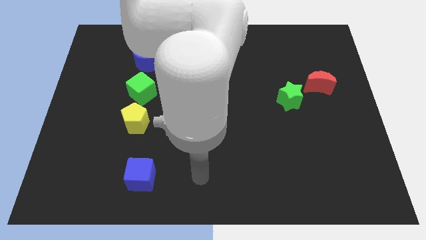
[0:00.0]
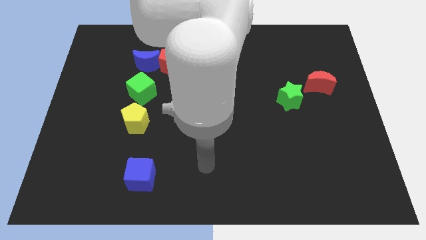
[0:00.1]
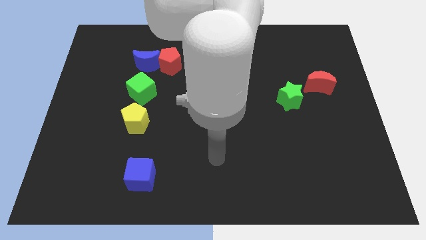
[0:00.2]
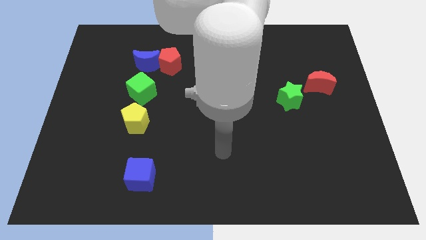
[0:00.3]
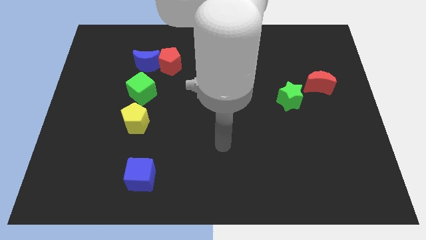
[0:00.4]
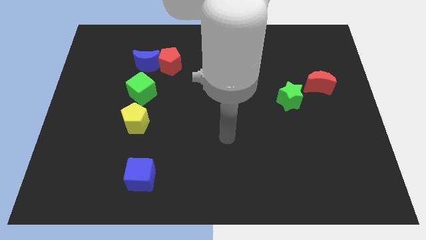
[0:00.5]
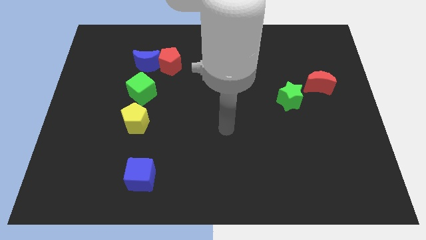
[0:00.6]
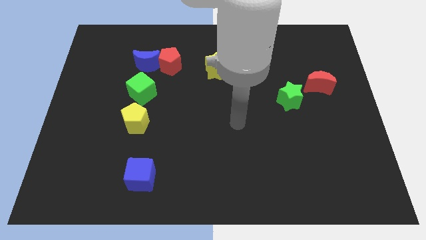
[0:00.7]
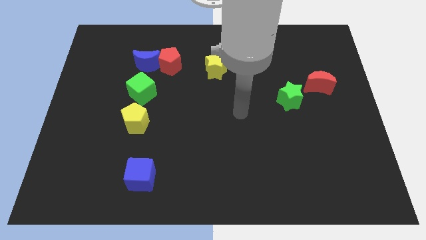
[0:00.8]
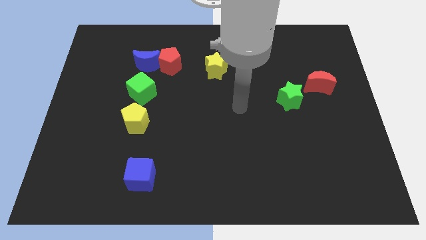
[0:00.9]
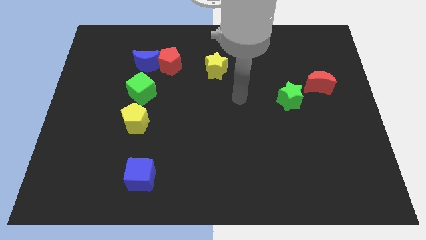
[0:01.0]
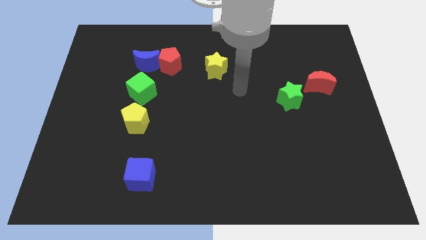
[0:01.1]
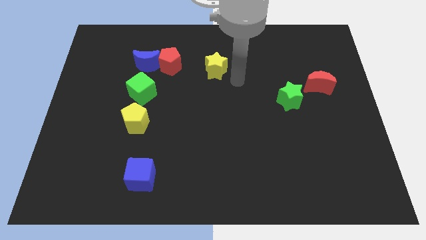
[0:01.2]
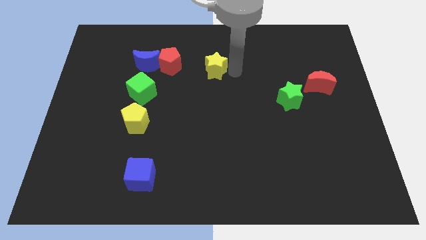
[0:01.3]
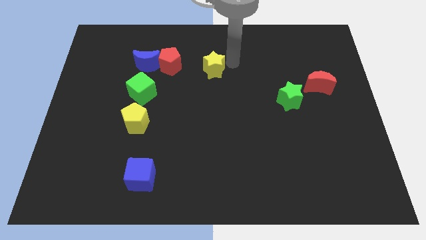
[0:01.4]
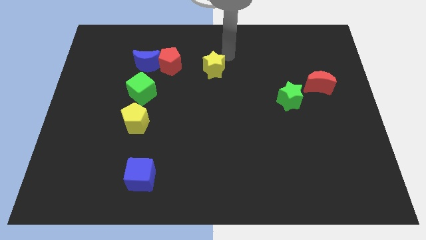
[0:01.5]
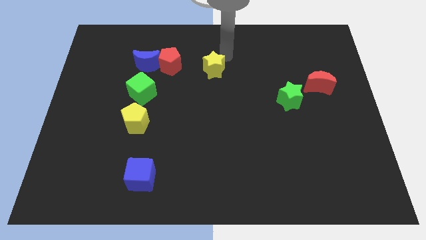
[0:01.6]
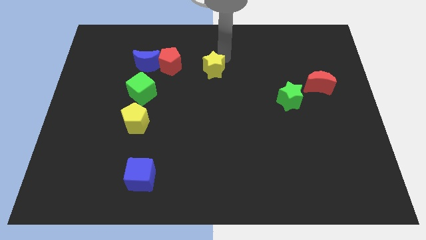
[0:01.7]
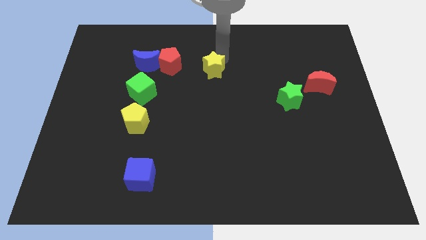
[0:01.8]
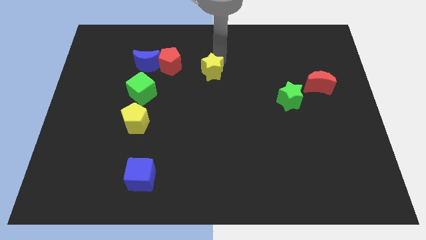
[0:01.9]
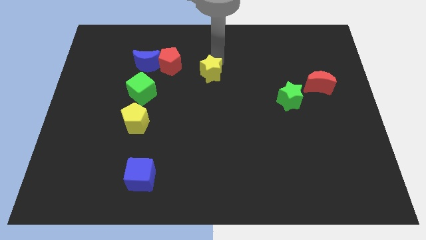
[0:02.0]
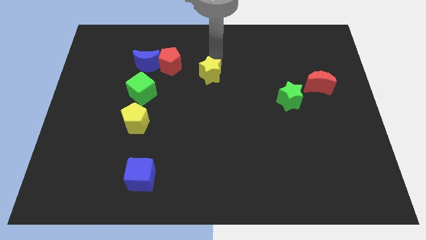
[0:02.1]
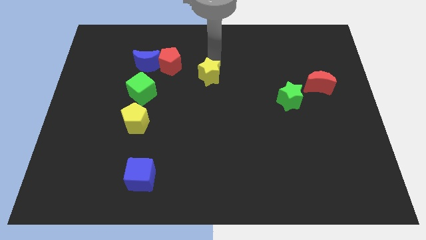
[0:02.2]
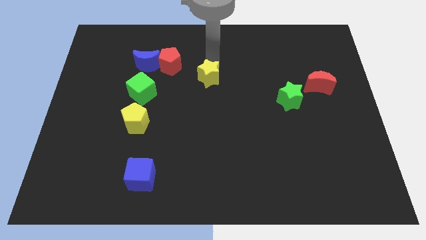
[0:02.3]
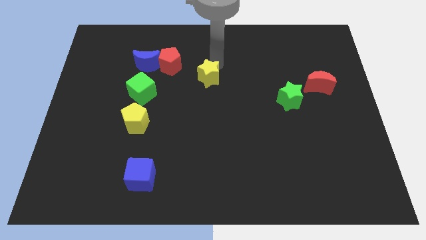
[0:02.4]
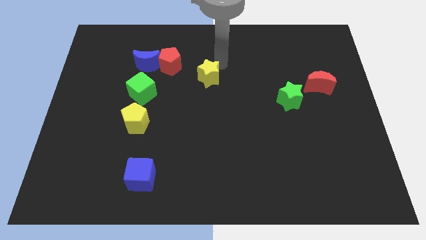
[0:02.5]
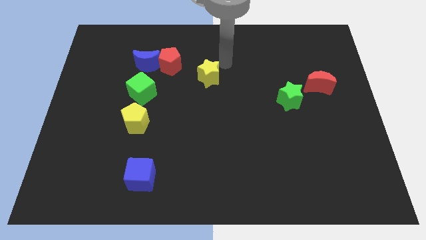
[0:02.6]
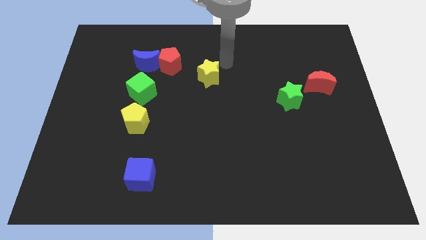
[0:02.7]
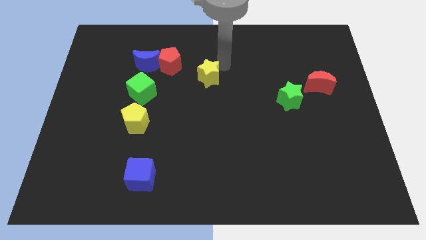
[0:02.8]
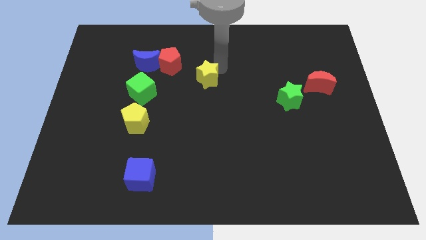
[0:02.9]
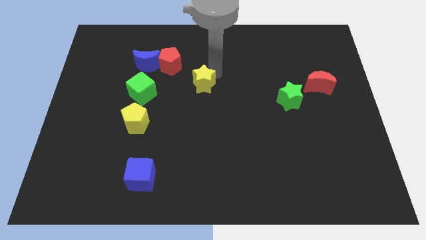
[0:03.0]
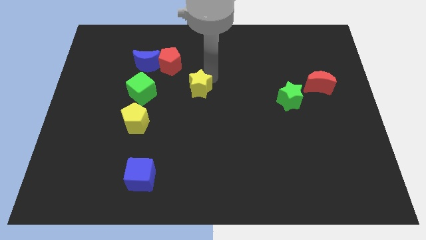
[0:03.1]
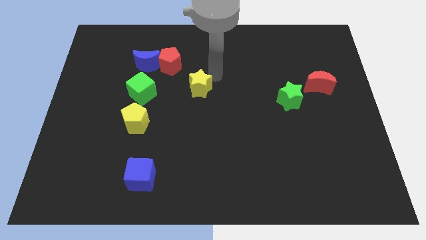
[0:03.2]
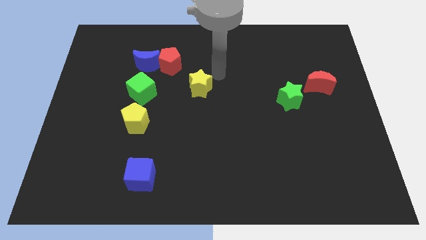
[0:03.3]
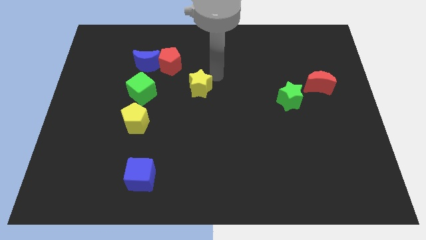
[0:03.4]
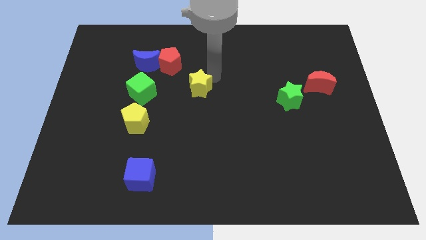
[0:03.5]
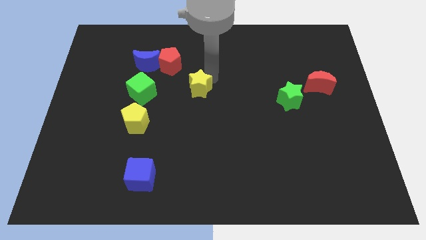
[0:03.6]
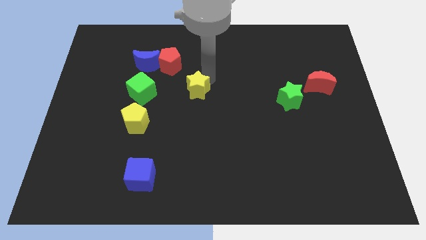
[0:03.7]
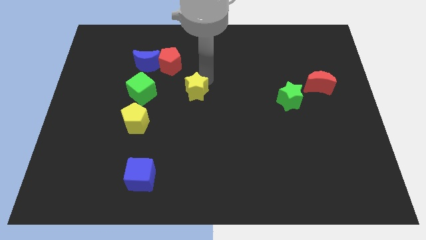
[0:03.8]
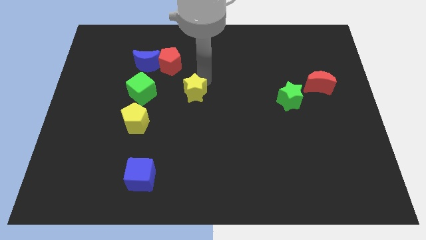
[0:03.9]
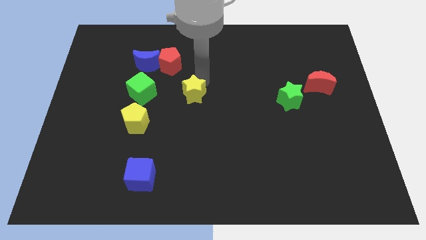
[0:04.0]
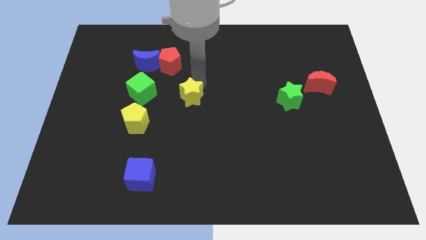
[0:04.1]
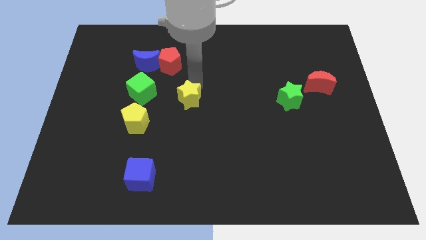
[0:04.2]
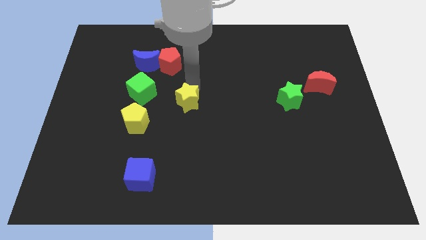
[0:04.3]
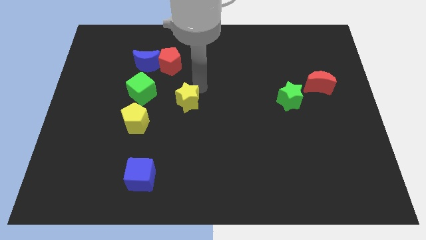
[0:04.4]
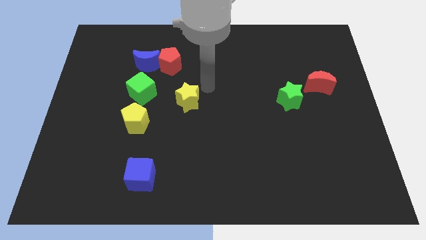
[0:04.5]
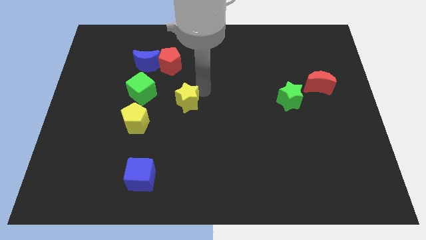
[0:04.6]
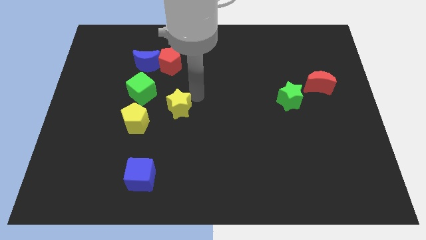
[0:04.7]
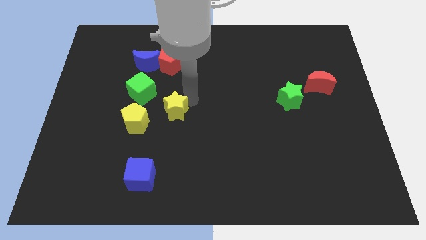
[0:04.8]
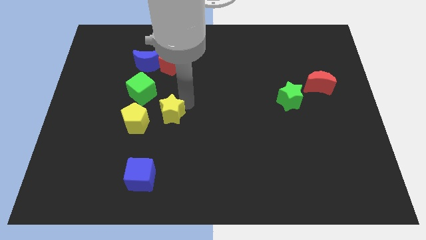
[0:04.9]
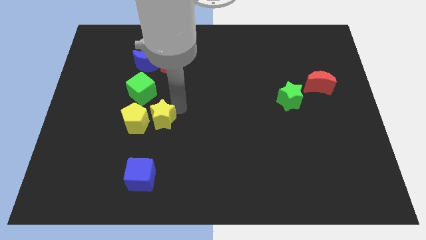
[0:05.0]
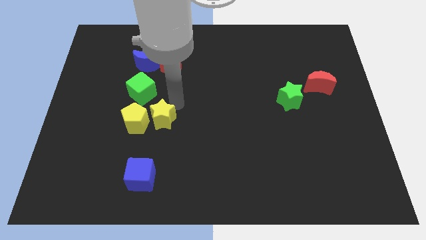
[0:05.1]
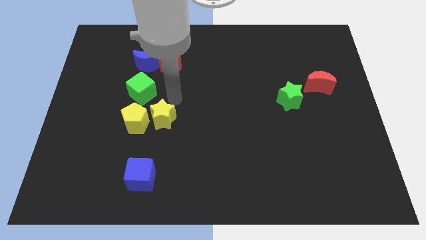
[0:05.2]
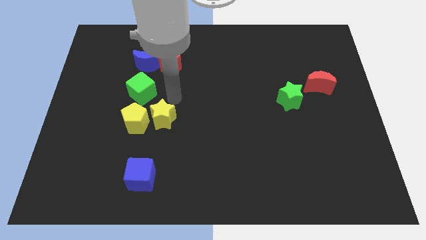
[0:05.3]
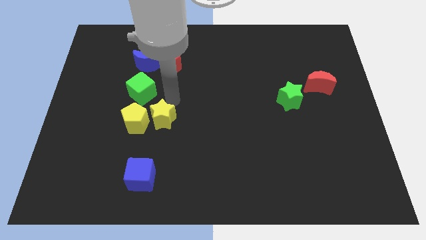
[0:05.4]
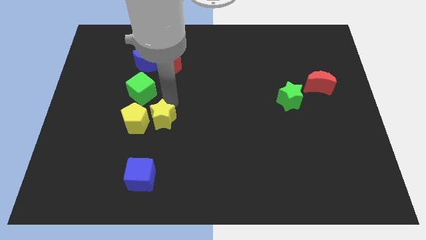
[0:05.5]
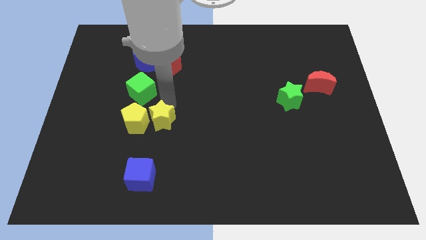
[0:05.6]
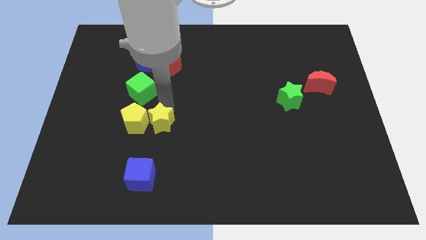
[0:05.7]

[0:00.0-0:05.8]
push the yellow star down and left diagonally

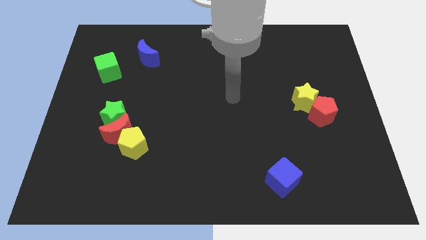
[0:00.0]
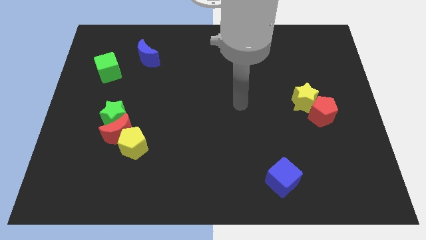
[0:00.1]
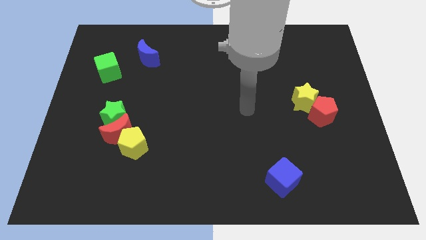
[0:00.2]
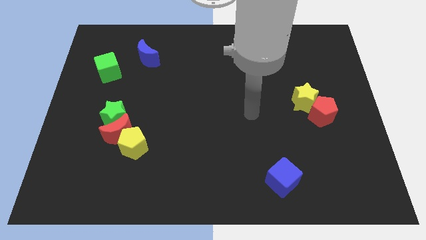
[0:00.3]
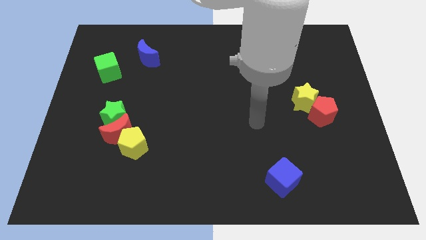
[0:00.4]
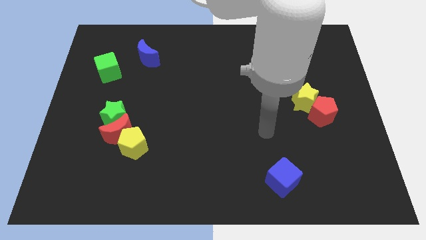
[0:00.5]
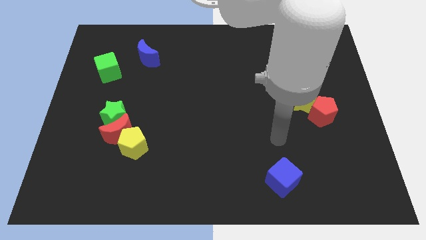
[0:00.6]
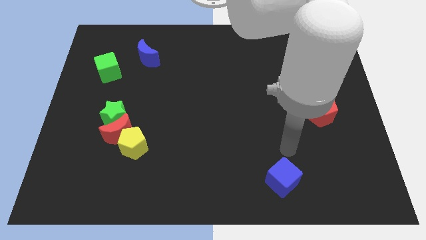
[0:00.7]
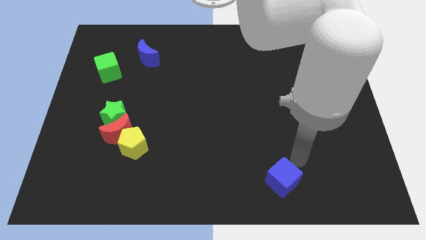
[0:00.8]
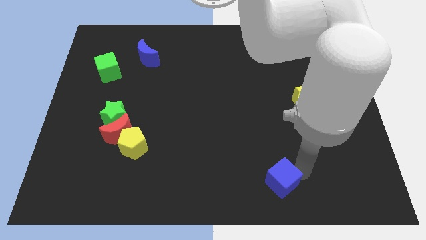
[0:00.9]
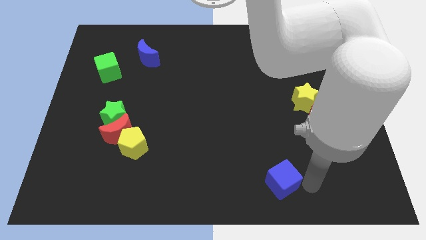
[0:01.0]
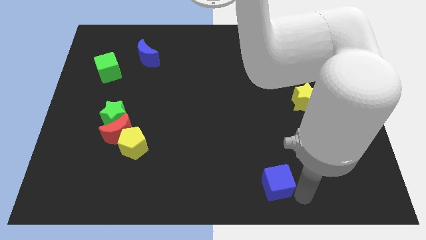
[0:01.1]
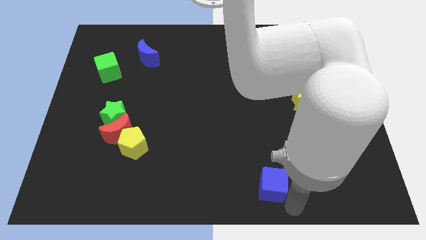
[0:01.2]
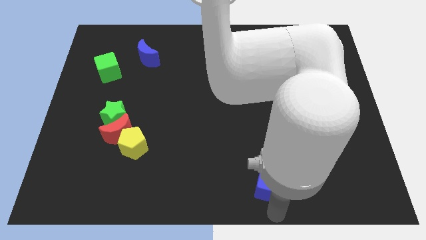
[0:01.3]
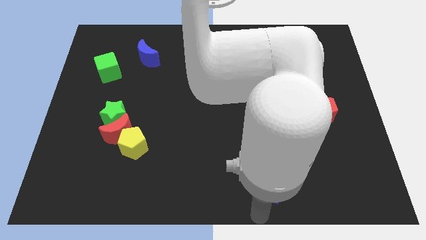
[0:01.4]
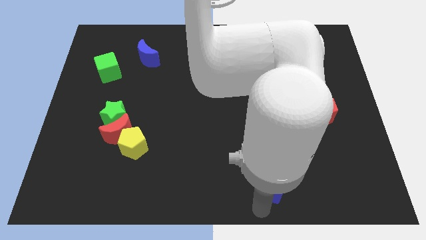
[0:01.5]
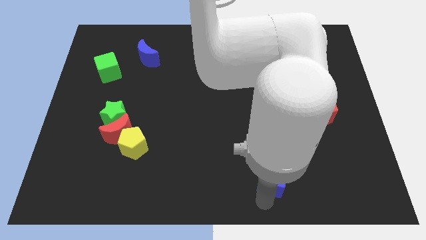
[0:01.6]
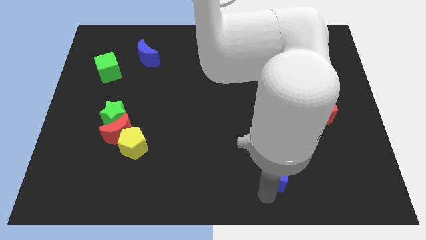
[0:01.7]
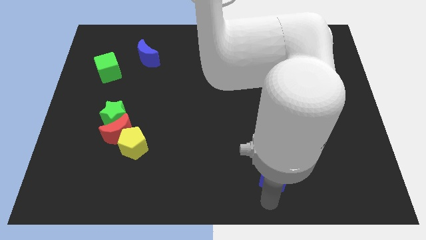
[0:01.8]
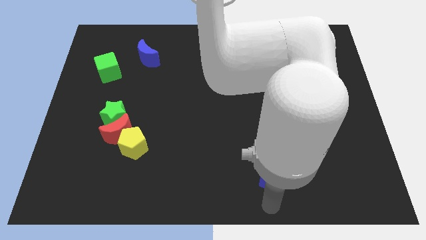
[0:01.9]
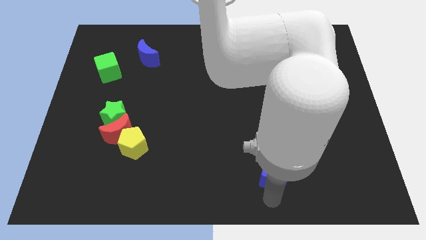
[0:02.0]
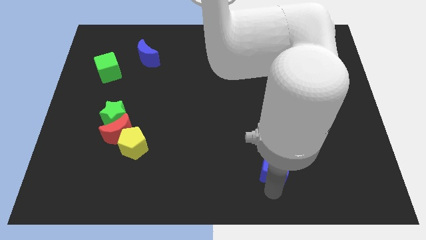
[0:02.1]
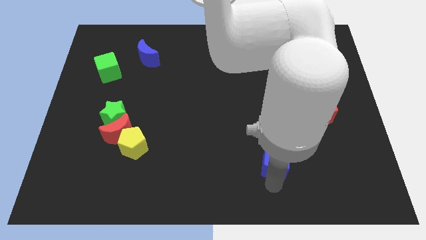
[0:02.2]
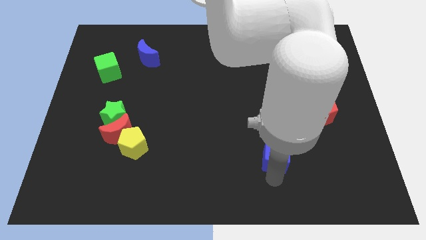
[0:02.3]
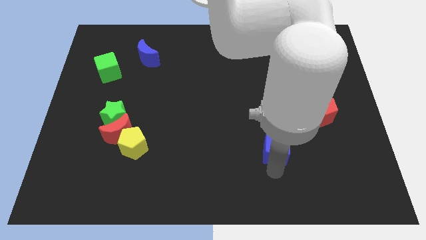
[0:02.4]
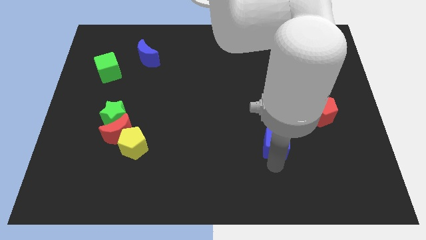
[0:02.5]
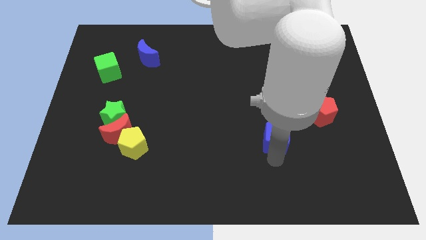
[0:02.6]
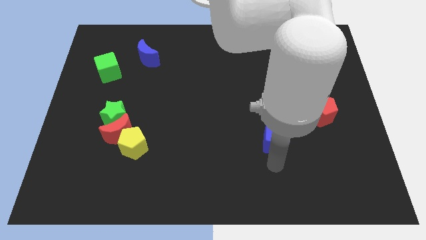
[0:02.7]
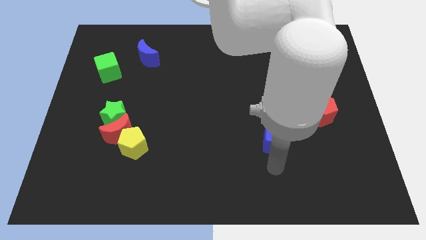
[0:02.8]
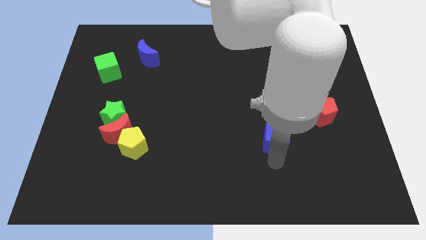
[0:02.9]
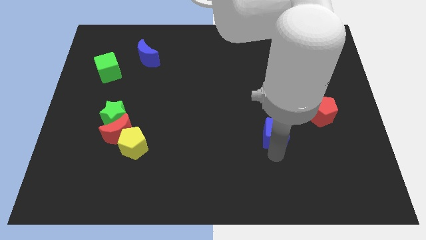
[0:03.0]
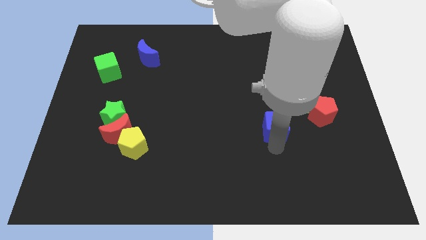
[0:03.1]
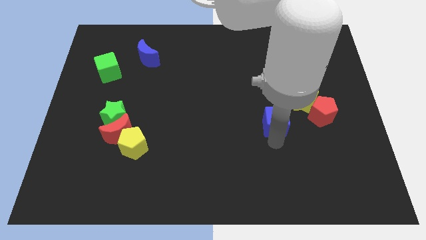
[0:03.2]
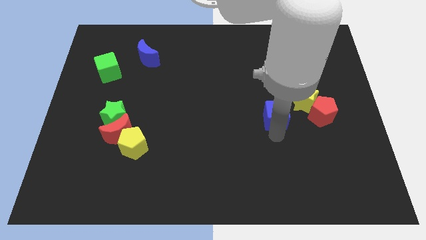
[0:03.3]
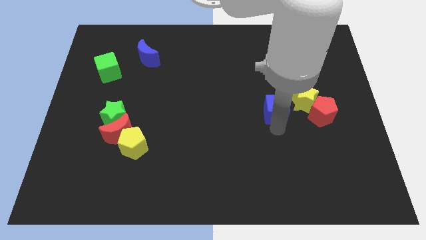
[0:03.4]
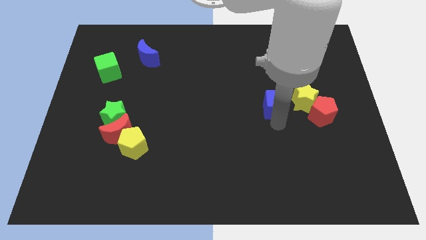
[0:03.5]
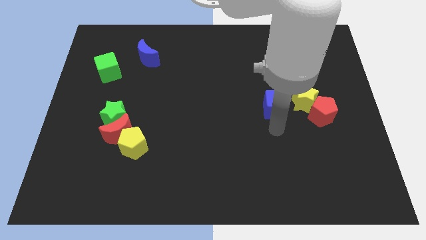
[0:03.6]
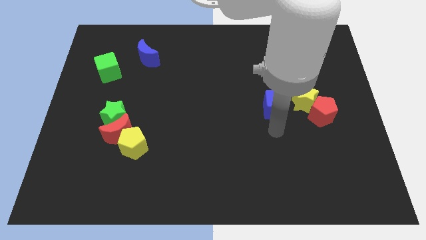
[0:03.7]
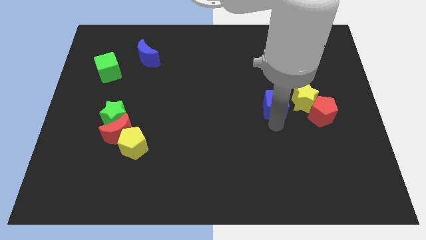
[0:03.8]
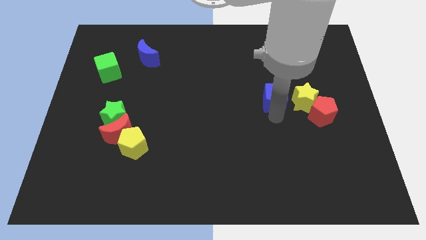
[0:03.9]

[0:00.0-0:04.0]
slide the blue cube up
